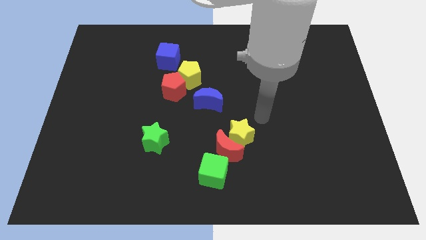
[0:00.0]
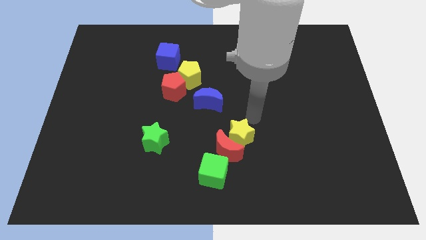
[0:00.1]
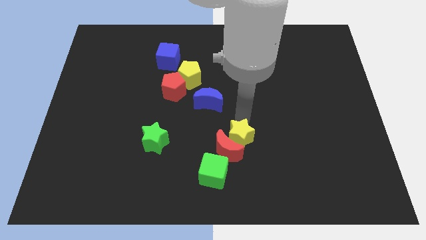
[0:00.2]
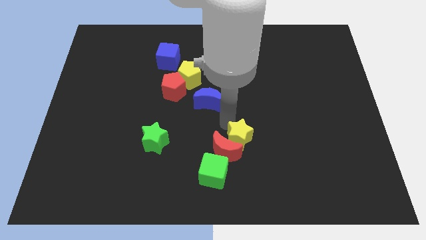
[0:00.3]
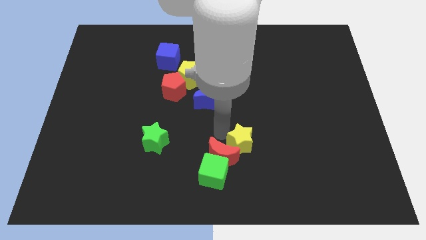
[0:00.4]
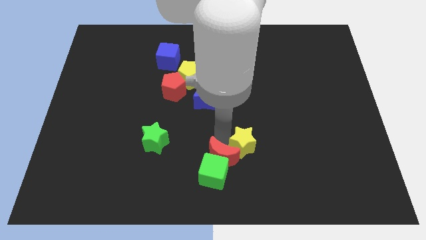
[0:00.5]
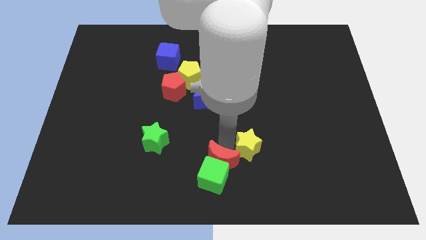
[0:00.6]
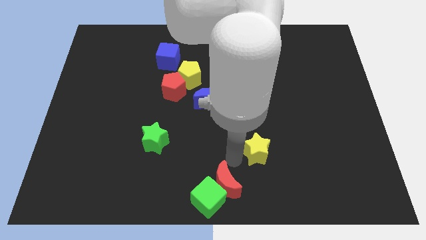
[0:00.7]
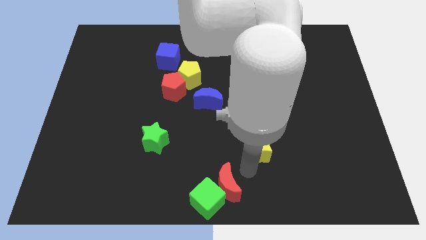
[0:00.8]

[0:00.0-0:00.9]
separate the yellow star from the red moon

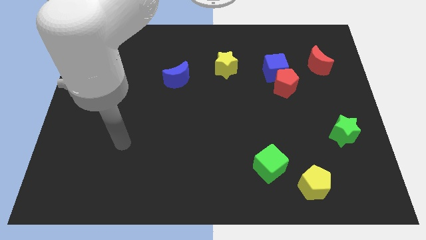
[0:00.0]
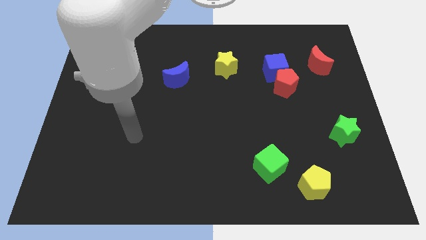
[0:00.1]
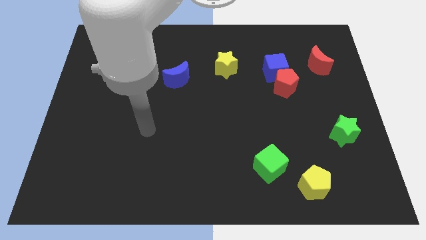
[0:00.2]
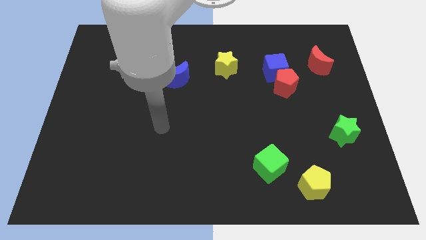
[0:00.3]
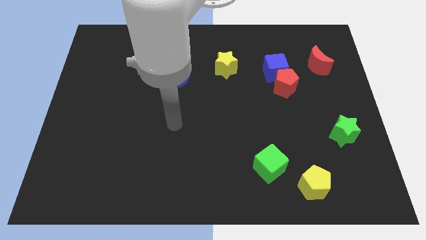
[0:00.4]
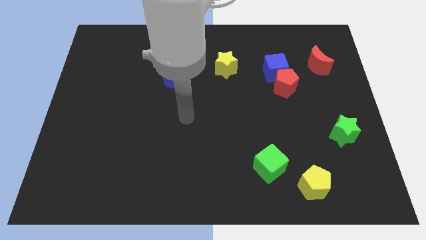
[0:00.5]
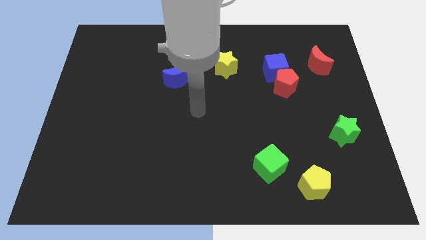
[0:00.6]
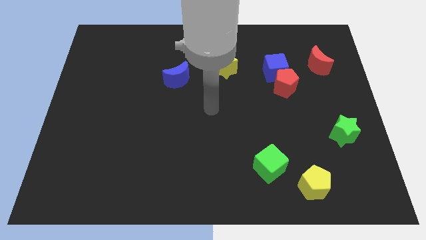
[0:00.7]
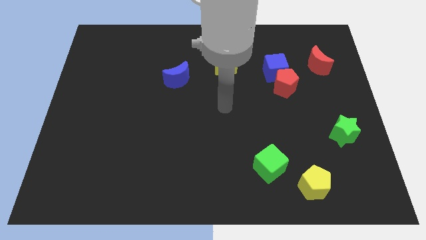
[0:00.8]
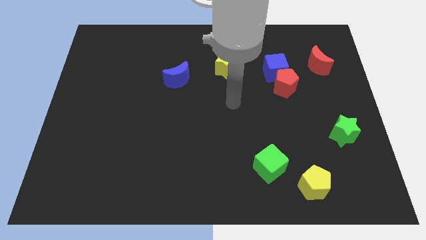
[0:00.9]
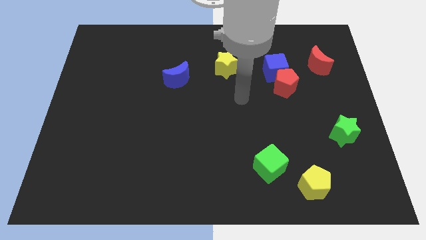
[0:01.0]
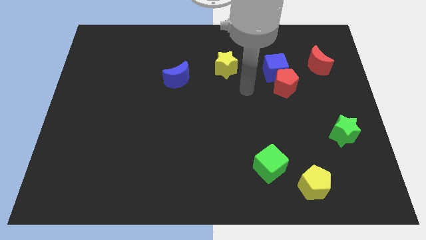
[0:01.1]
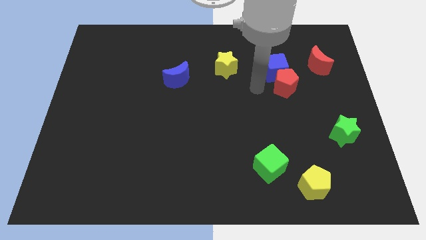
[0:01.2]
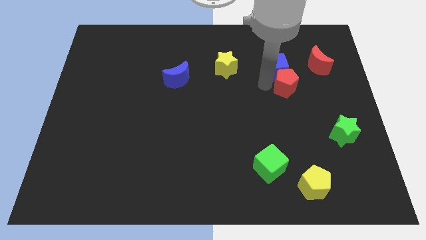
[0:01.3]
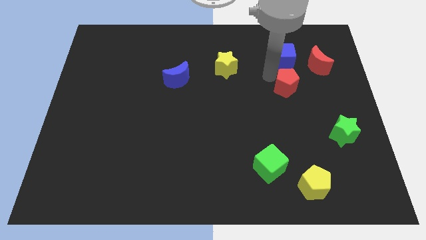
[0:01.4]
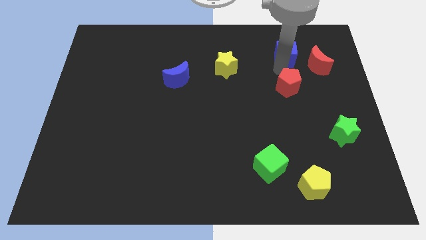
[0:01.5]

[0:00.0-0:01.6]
pull the red pentagon apart from the blue cube

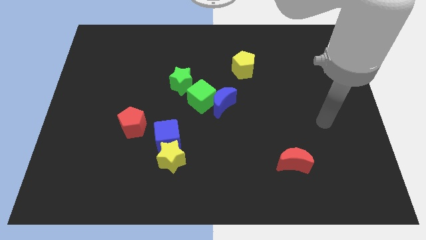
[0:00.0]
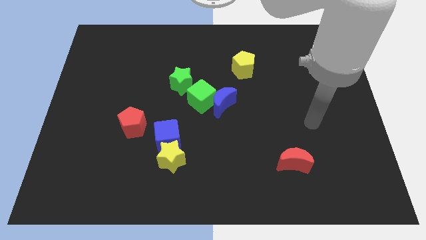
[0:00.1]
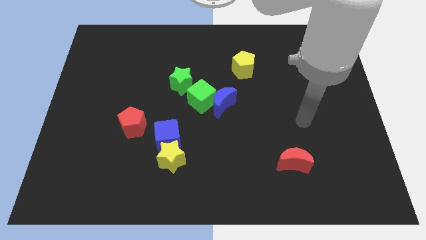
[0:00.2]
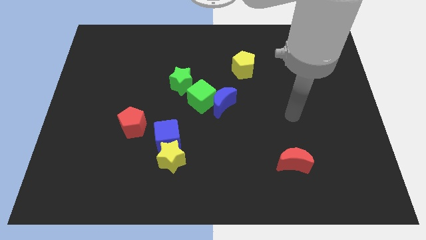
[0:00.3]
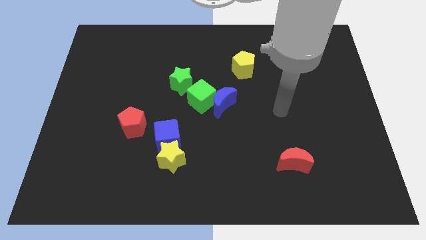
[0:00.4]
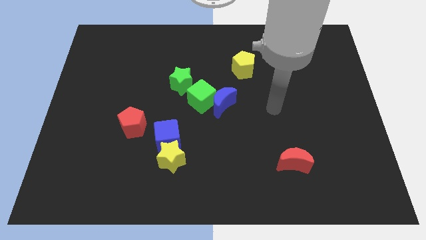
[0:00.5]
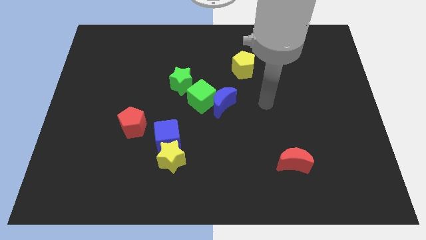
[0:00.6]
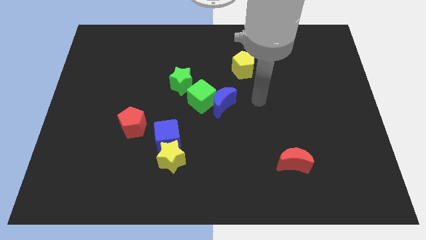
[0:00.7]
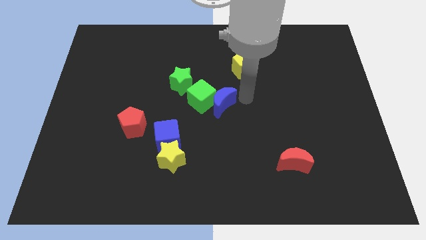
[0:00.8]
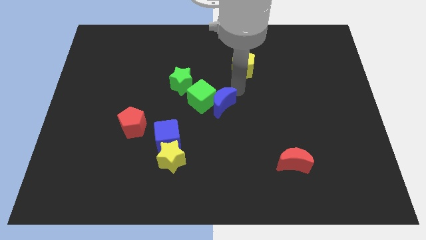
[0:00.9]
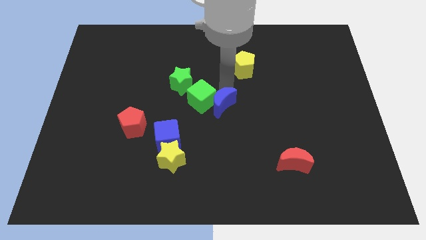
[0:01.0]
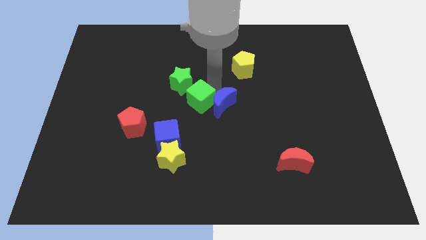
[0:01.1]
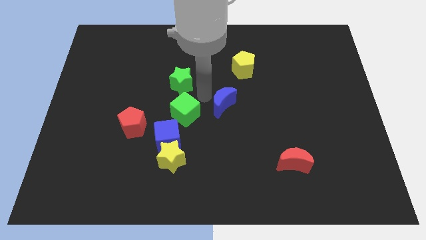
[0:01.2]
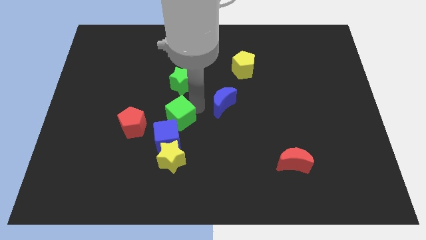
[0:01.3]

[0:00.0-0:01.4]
pull the blue moon apart from the green cube

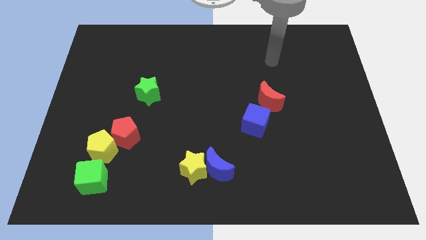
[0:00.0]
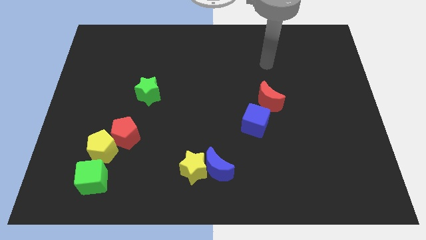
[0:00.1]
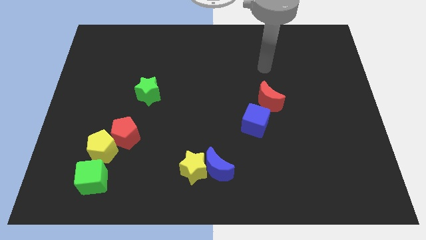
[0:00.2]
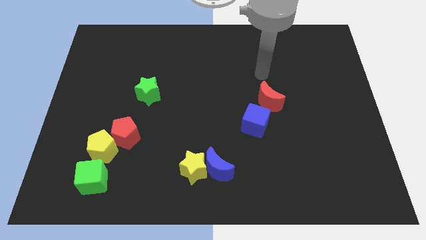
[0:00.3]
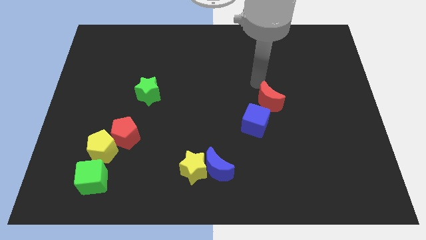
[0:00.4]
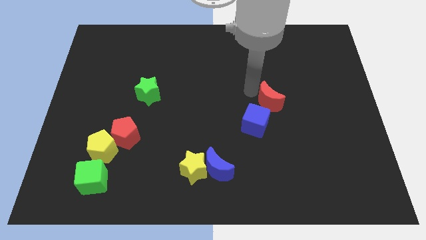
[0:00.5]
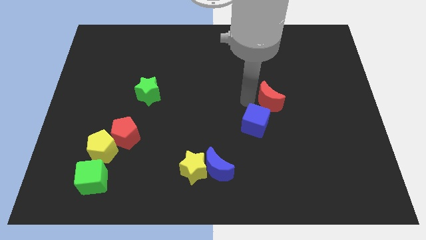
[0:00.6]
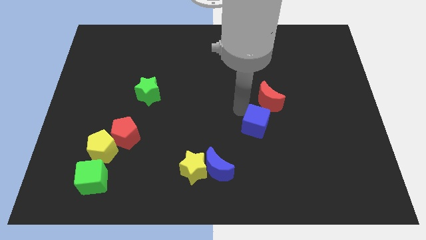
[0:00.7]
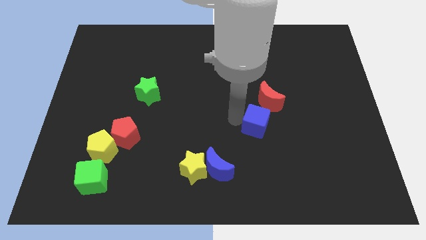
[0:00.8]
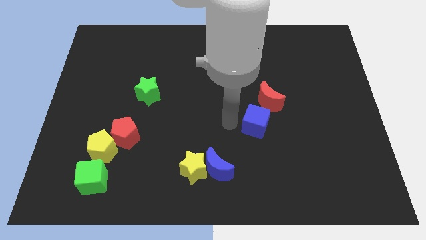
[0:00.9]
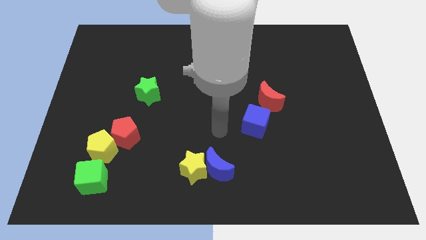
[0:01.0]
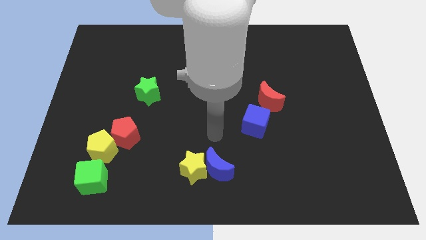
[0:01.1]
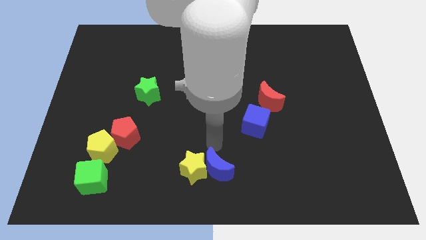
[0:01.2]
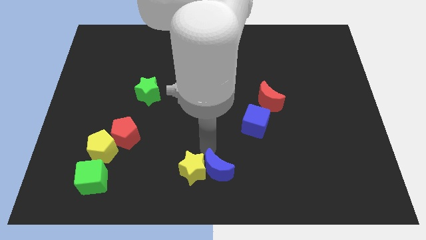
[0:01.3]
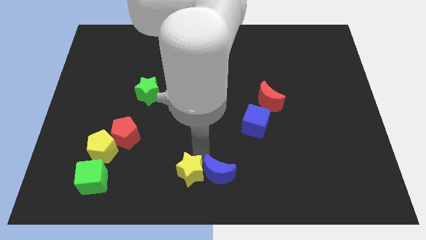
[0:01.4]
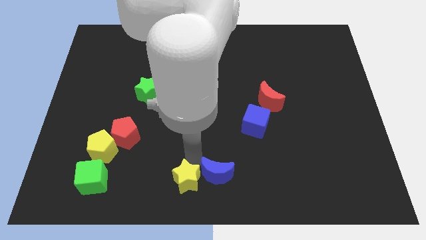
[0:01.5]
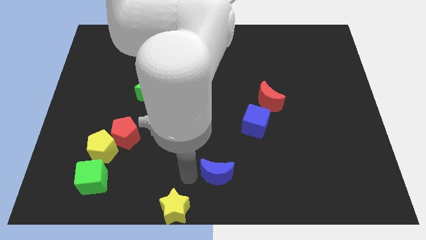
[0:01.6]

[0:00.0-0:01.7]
pull the blue moon apart from the yellow star

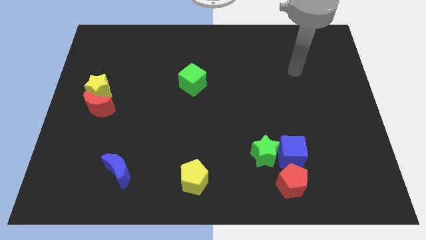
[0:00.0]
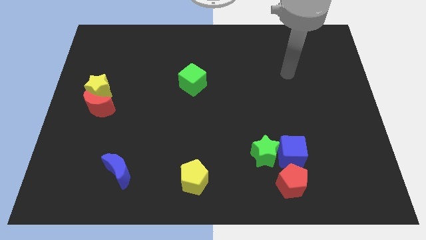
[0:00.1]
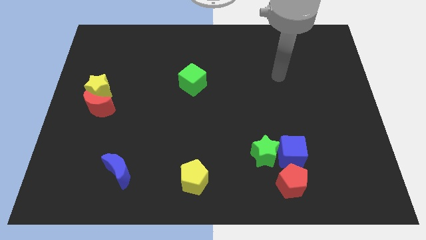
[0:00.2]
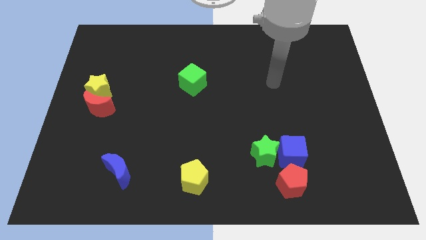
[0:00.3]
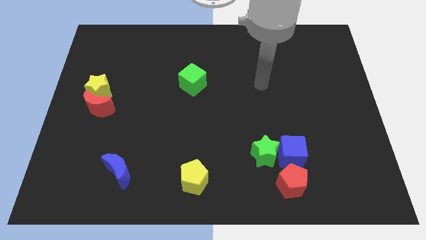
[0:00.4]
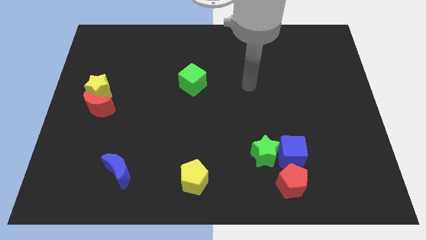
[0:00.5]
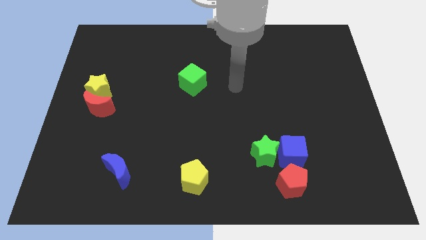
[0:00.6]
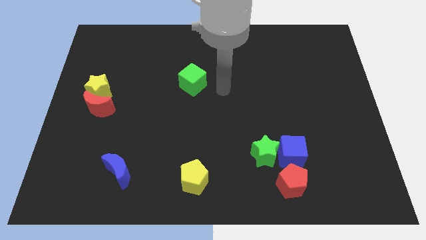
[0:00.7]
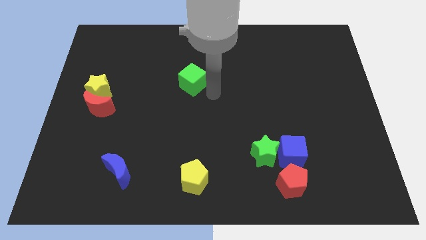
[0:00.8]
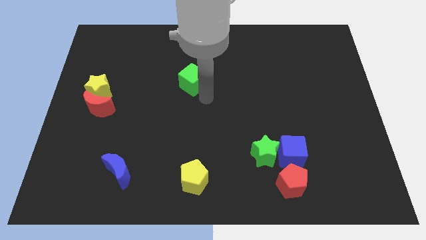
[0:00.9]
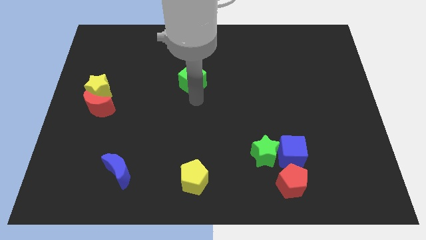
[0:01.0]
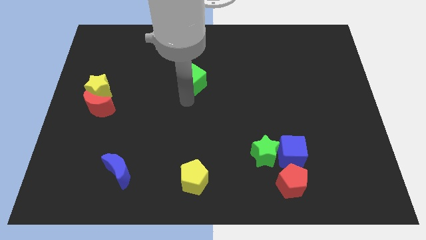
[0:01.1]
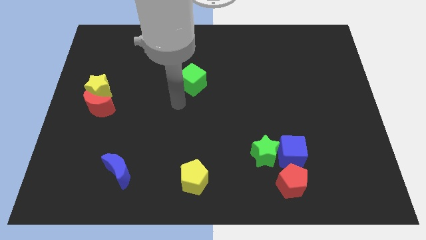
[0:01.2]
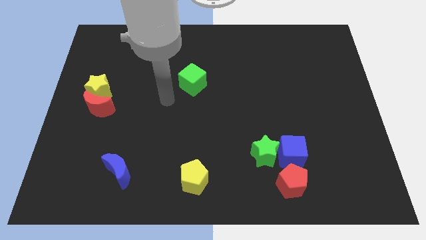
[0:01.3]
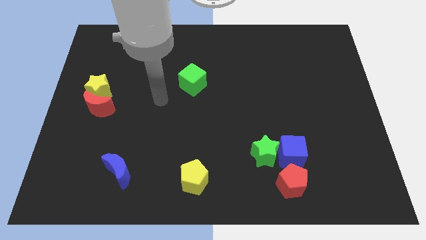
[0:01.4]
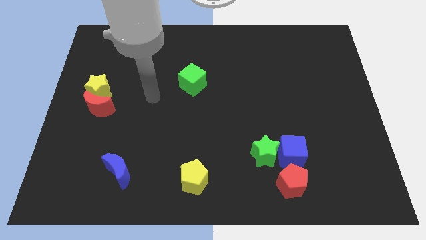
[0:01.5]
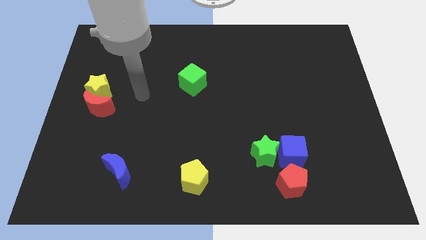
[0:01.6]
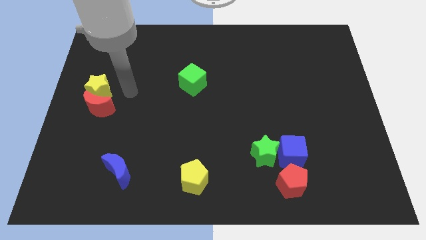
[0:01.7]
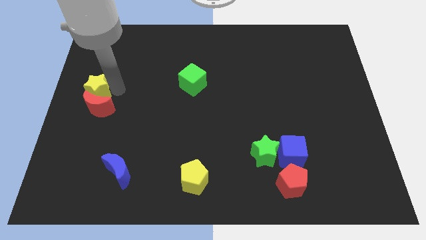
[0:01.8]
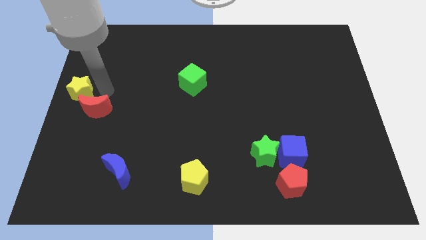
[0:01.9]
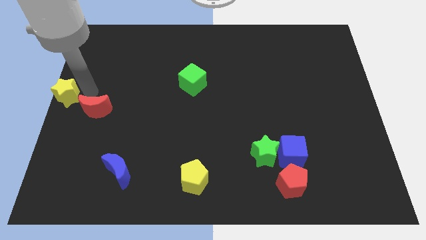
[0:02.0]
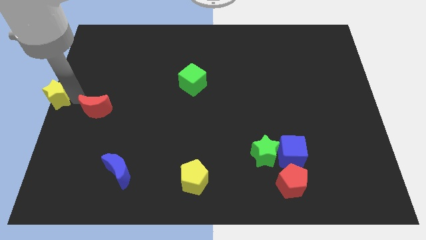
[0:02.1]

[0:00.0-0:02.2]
separate the red moon from the yellow star

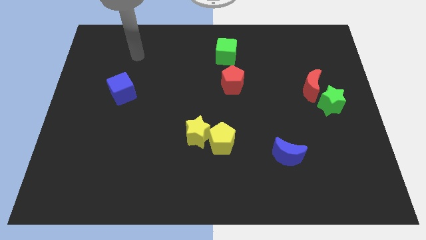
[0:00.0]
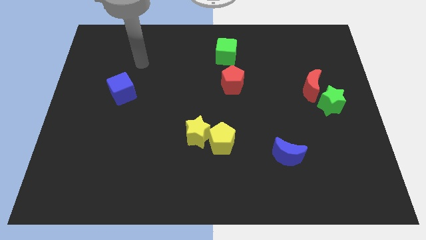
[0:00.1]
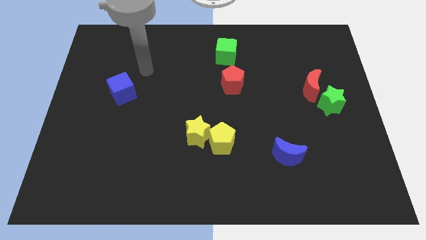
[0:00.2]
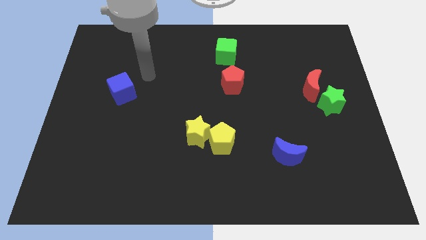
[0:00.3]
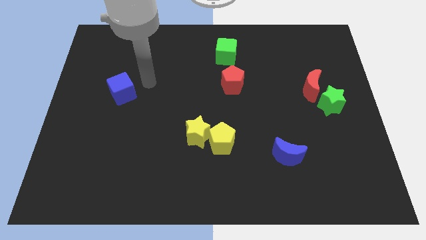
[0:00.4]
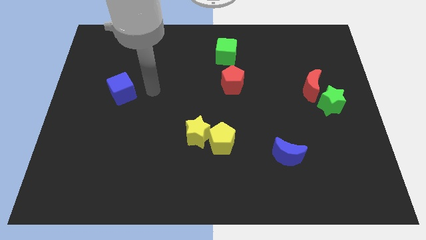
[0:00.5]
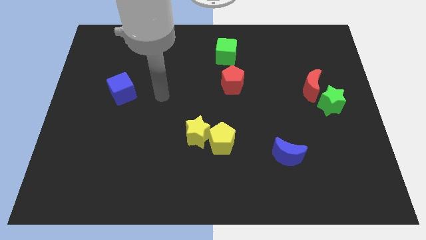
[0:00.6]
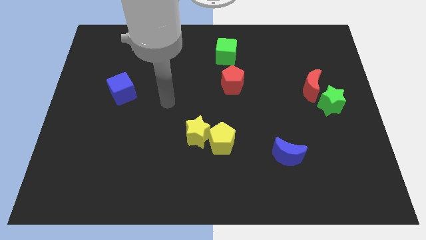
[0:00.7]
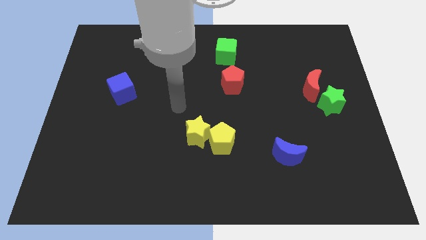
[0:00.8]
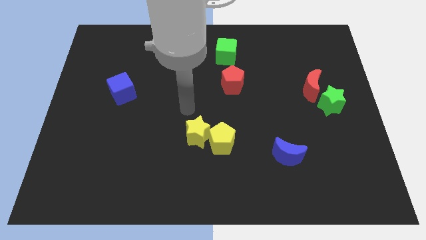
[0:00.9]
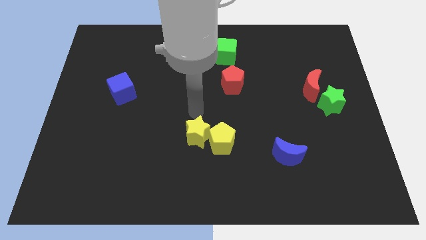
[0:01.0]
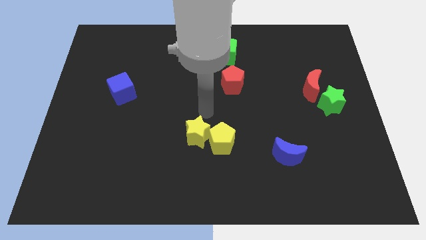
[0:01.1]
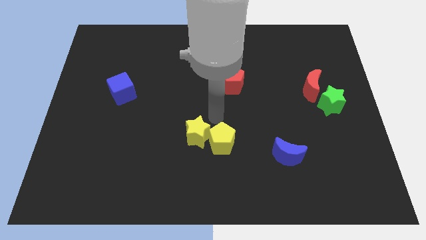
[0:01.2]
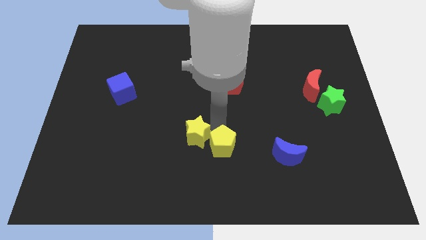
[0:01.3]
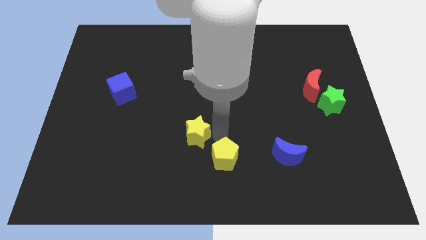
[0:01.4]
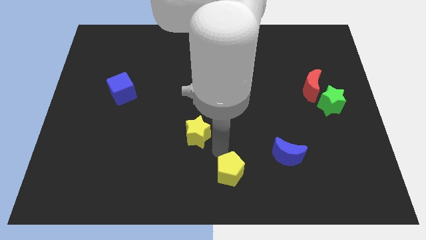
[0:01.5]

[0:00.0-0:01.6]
move the yellow star away from the yellow pentagon

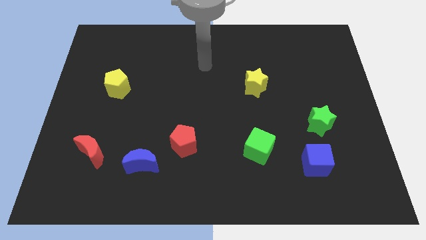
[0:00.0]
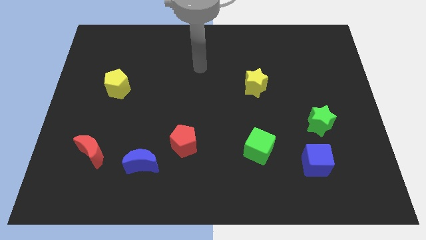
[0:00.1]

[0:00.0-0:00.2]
move the red pentagon away from the blue moon
